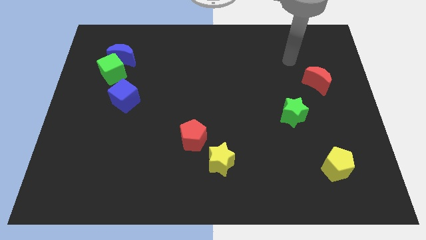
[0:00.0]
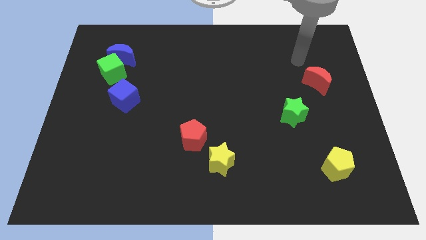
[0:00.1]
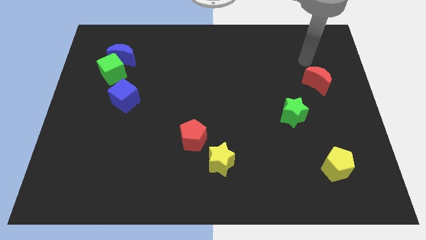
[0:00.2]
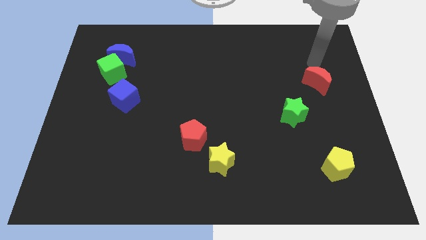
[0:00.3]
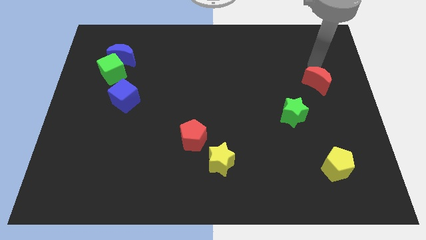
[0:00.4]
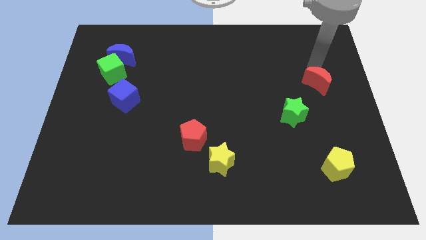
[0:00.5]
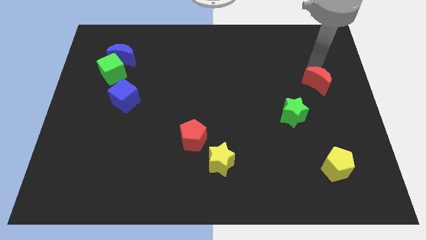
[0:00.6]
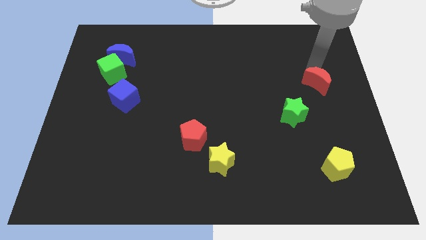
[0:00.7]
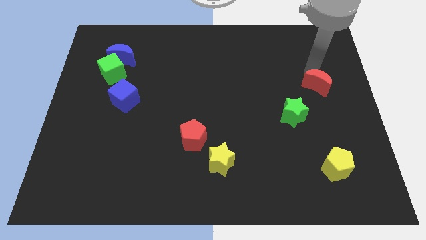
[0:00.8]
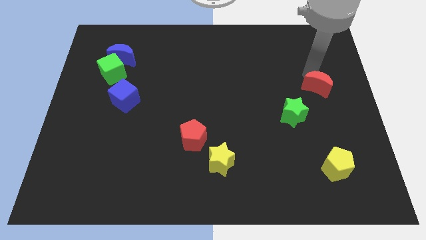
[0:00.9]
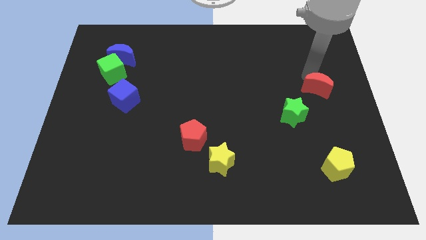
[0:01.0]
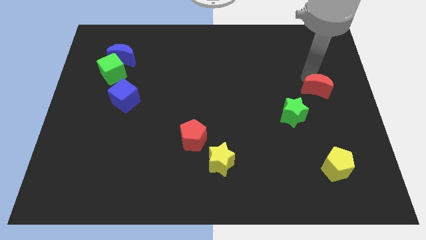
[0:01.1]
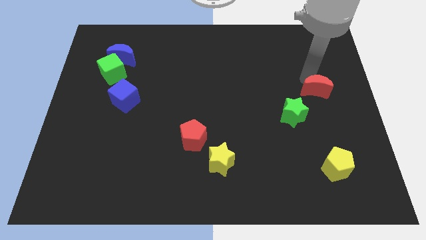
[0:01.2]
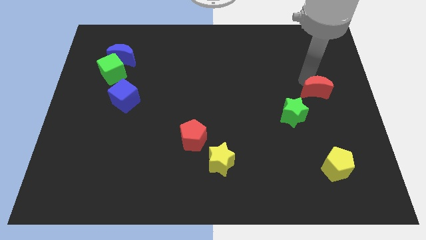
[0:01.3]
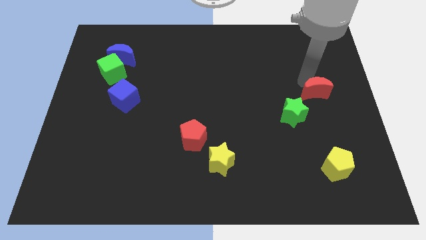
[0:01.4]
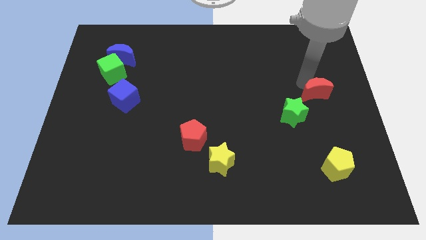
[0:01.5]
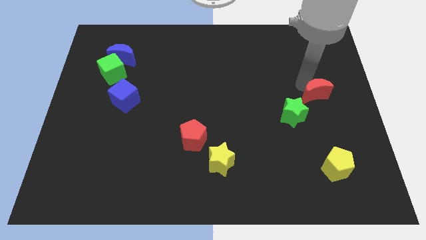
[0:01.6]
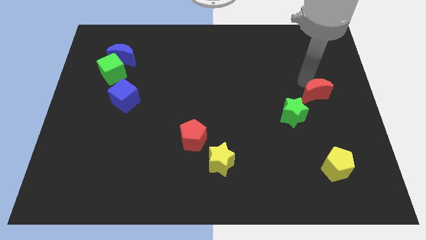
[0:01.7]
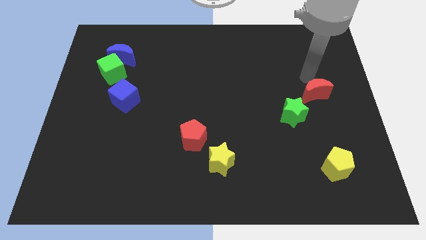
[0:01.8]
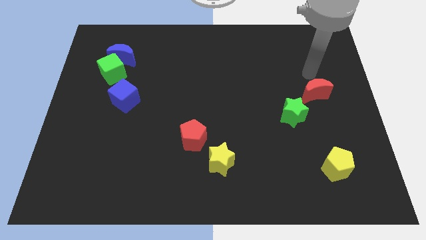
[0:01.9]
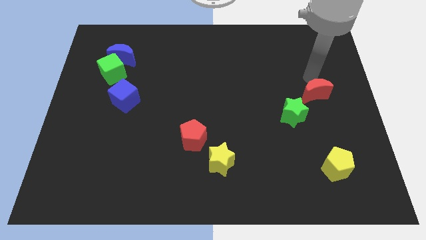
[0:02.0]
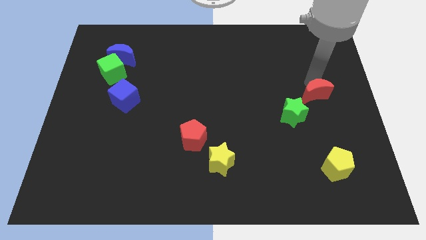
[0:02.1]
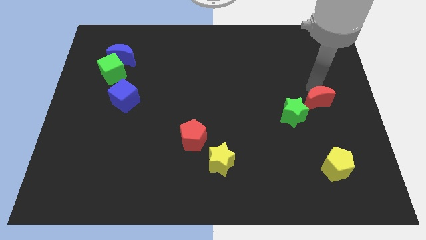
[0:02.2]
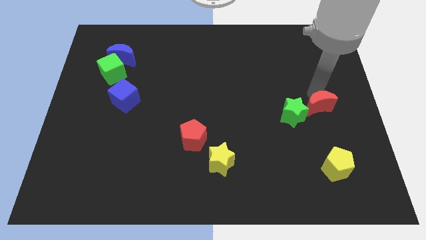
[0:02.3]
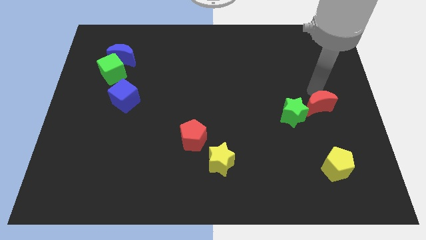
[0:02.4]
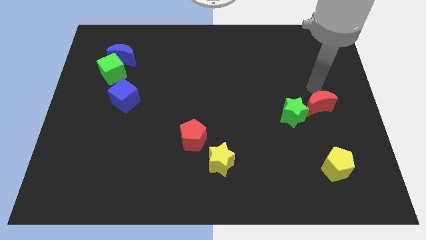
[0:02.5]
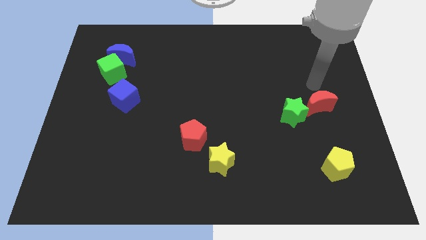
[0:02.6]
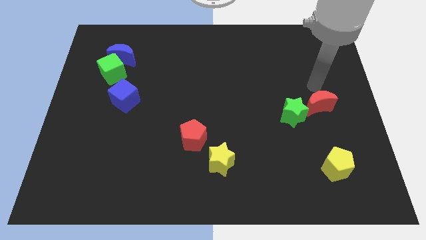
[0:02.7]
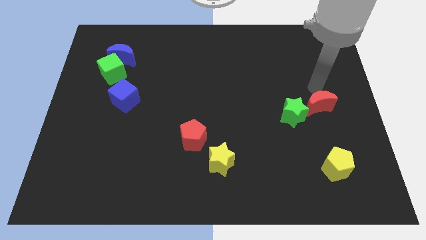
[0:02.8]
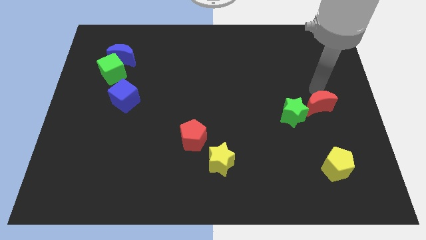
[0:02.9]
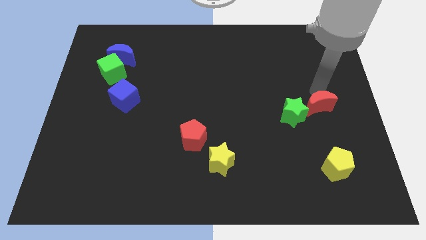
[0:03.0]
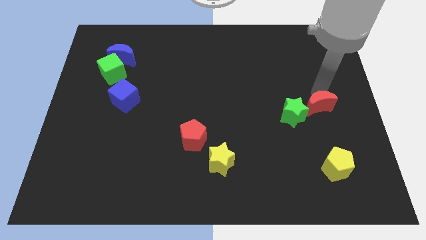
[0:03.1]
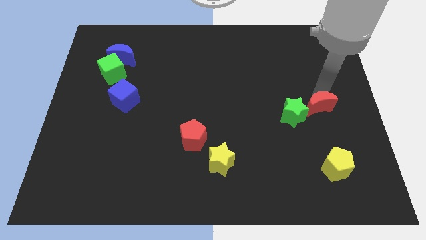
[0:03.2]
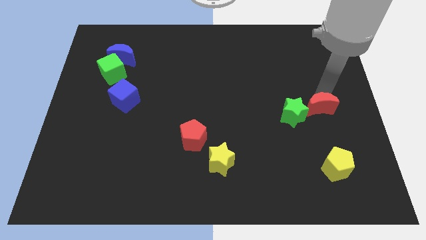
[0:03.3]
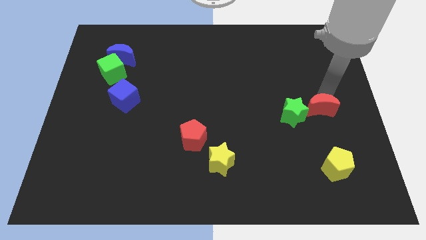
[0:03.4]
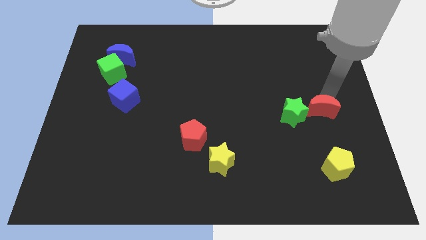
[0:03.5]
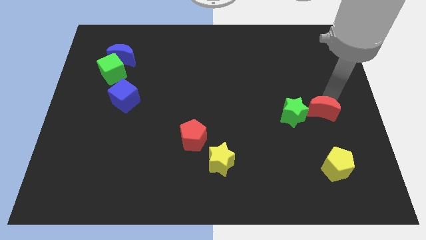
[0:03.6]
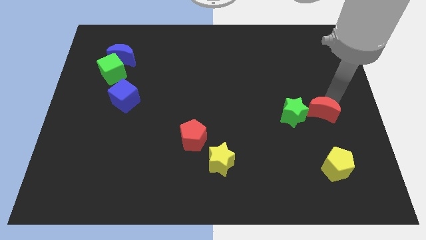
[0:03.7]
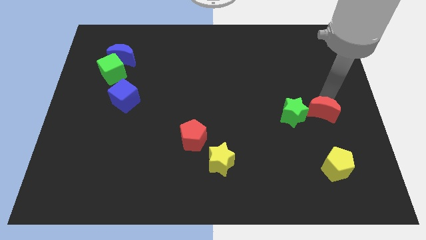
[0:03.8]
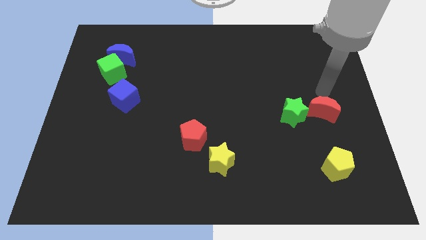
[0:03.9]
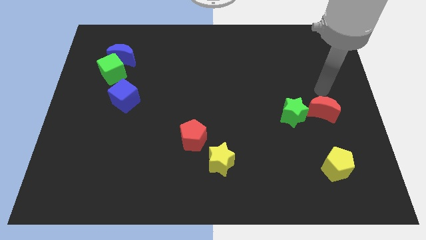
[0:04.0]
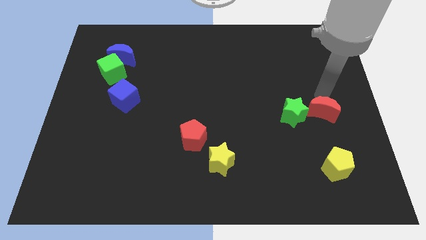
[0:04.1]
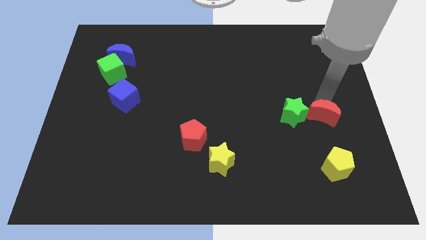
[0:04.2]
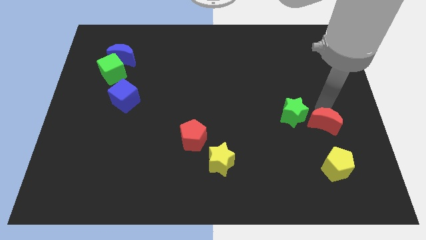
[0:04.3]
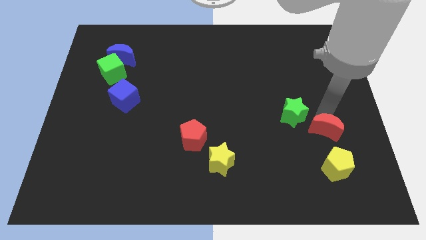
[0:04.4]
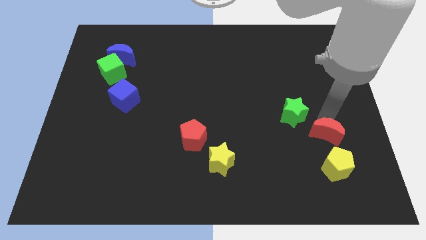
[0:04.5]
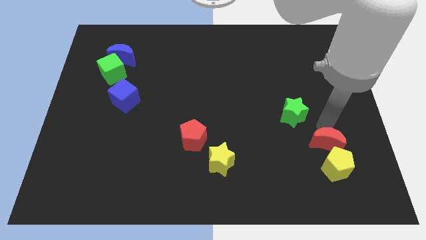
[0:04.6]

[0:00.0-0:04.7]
push the red moon close to the yellow pentagon

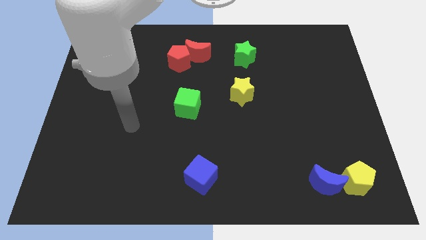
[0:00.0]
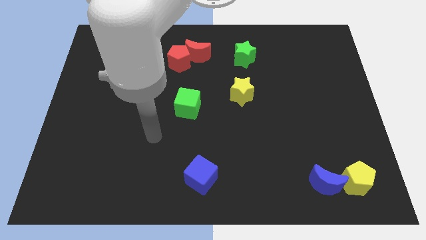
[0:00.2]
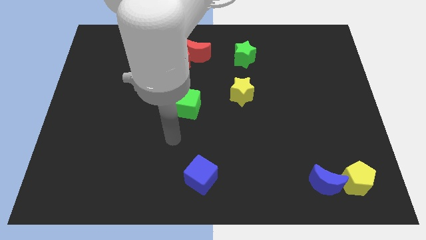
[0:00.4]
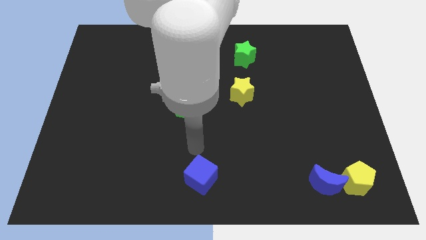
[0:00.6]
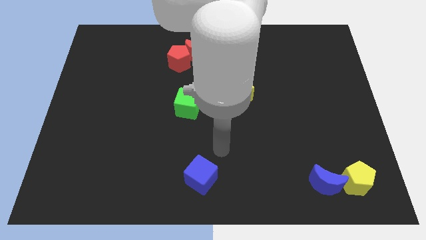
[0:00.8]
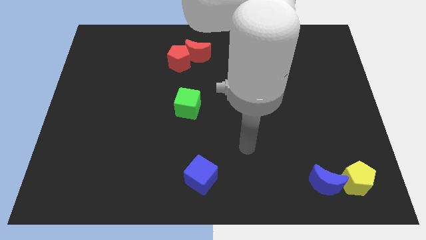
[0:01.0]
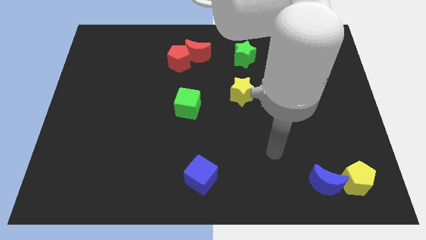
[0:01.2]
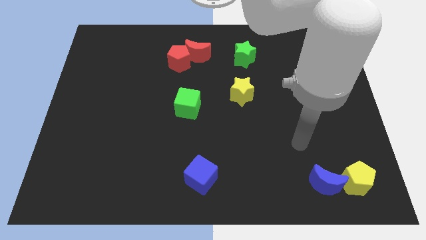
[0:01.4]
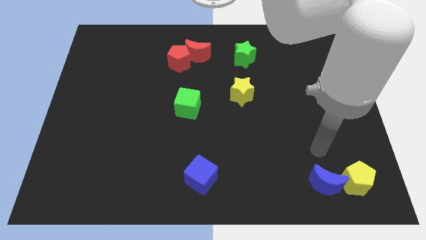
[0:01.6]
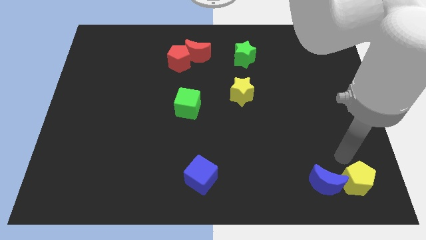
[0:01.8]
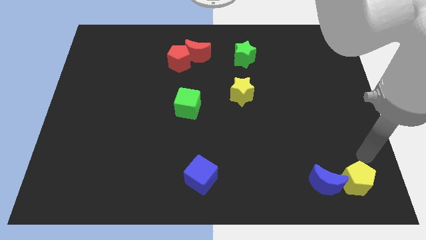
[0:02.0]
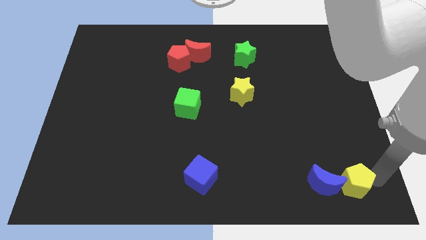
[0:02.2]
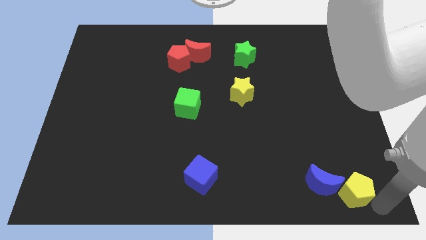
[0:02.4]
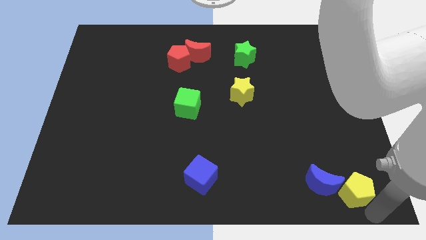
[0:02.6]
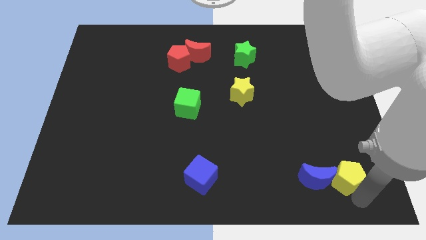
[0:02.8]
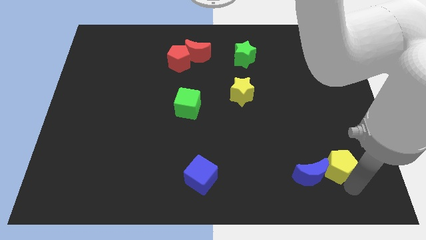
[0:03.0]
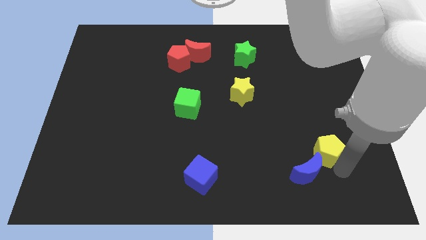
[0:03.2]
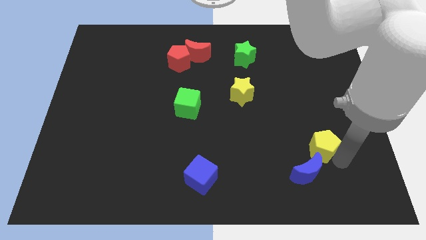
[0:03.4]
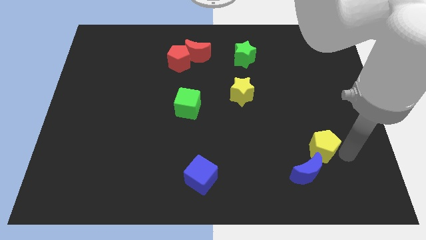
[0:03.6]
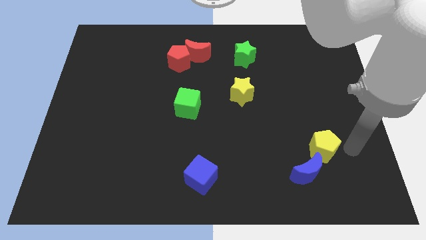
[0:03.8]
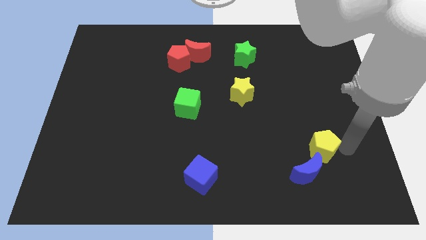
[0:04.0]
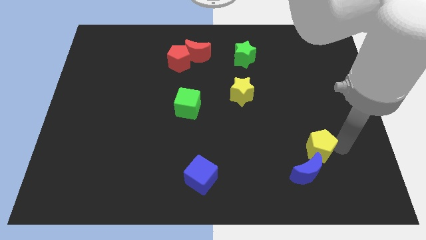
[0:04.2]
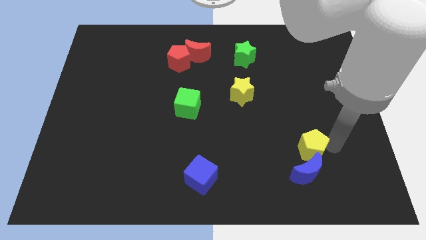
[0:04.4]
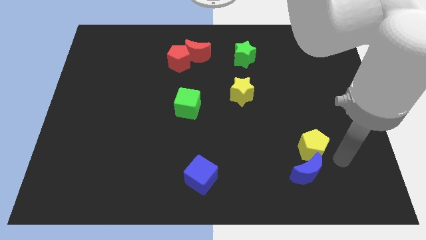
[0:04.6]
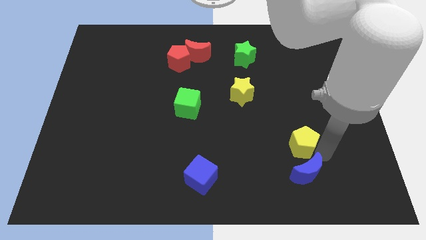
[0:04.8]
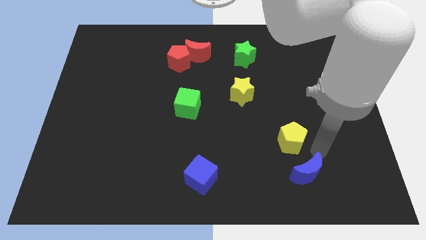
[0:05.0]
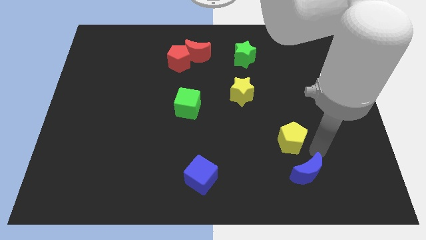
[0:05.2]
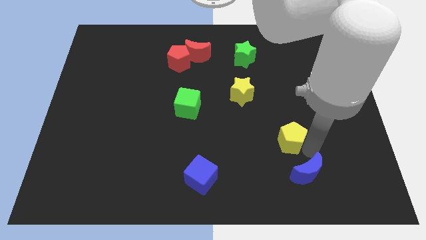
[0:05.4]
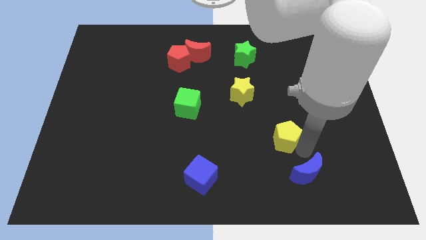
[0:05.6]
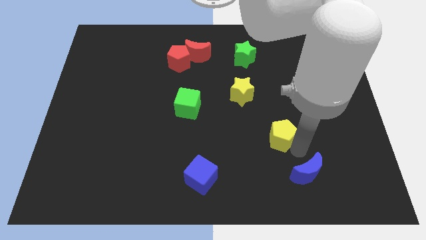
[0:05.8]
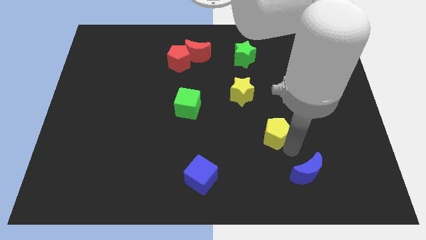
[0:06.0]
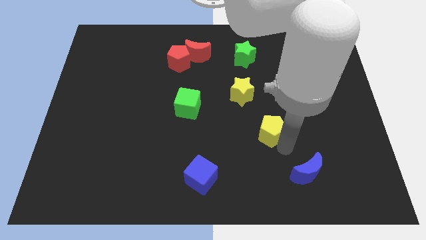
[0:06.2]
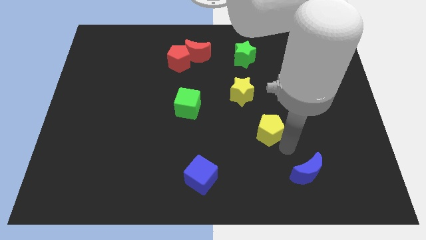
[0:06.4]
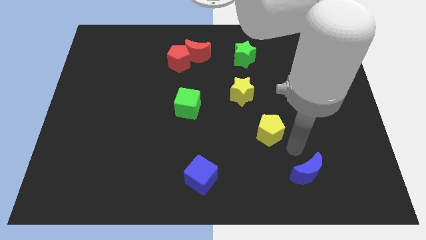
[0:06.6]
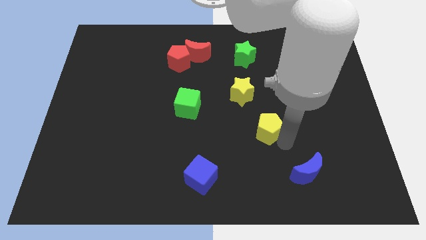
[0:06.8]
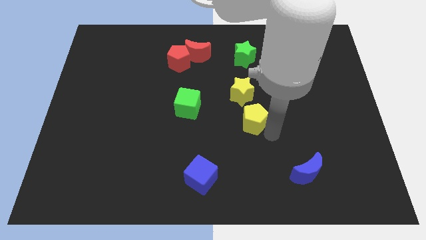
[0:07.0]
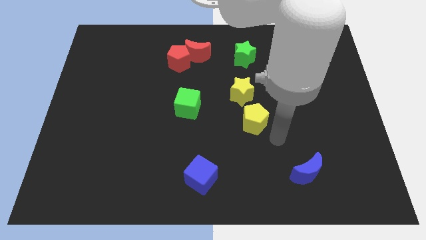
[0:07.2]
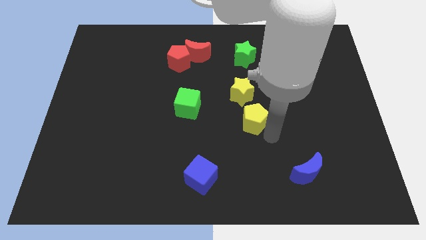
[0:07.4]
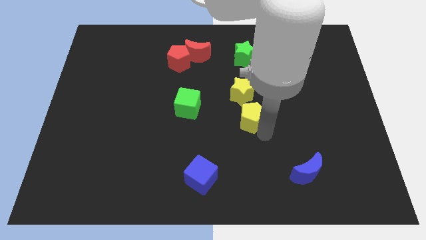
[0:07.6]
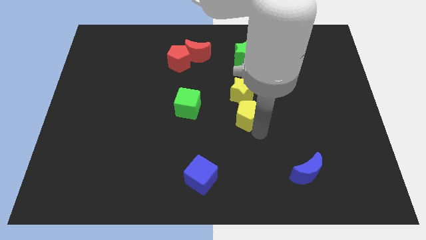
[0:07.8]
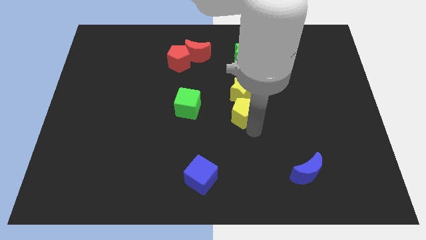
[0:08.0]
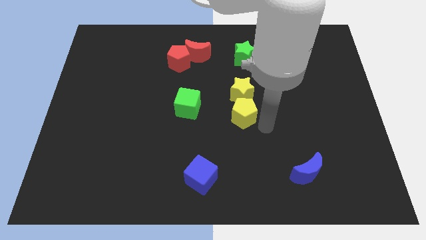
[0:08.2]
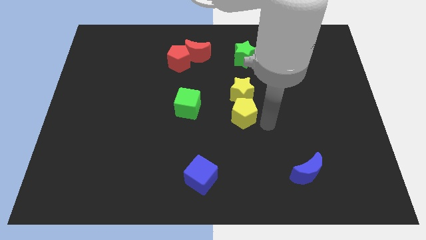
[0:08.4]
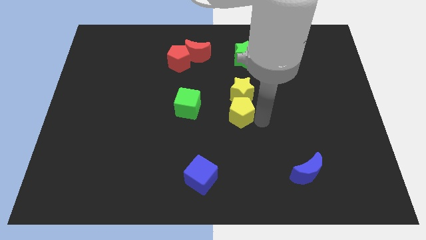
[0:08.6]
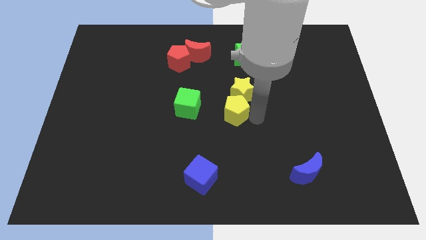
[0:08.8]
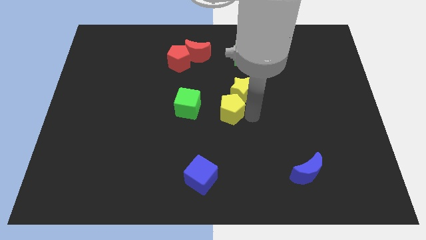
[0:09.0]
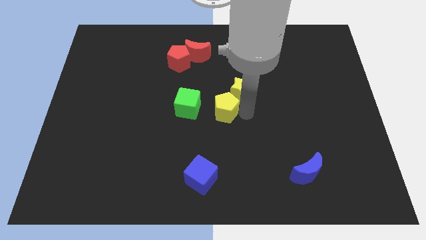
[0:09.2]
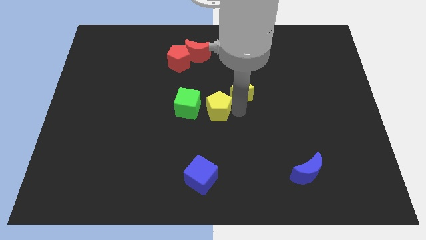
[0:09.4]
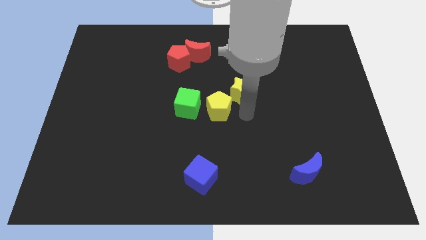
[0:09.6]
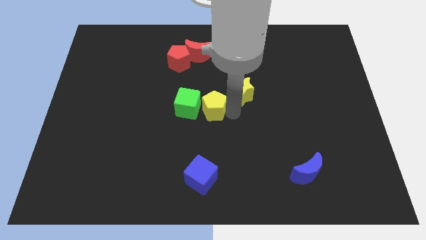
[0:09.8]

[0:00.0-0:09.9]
slide the yellow pentagon to the green cube
